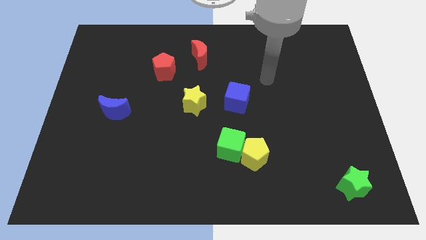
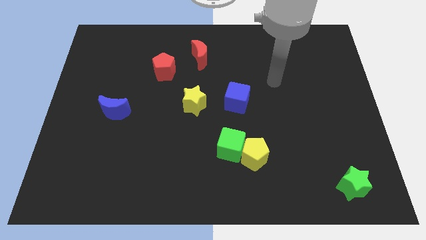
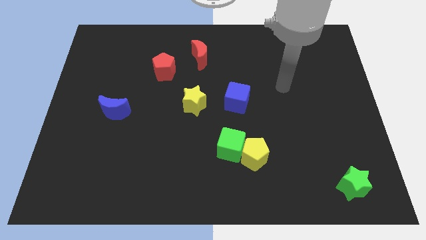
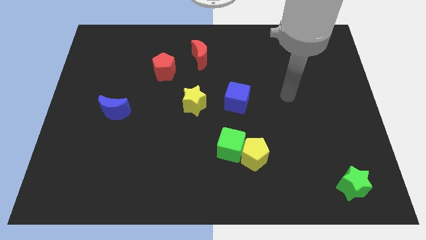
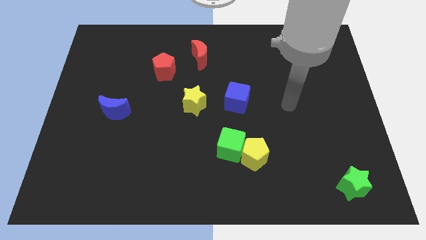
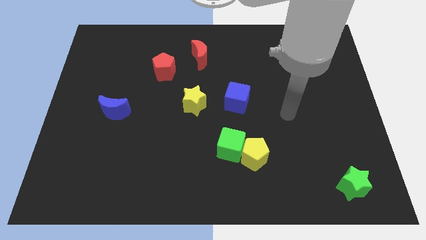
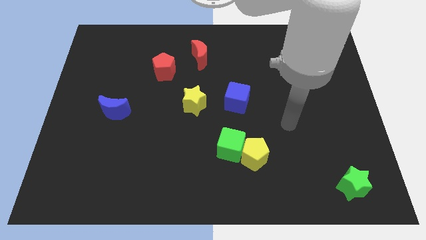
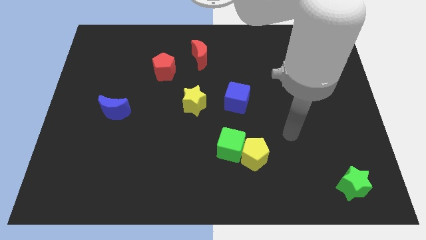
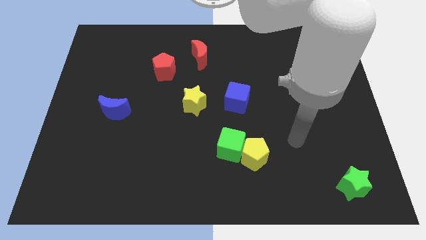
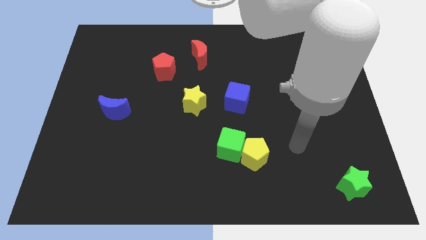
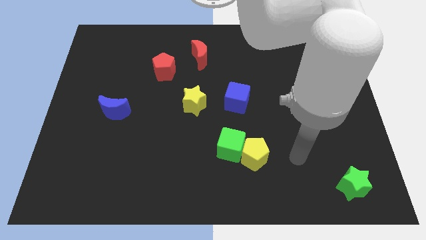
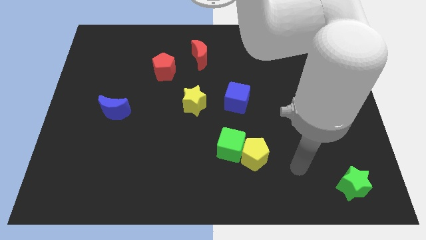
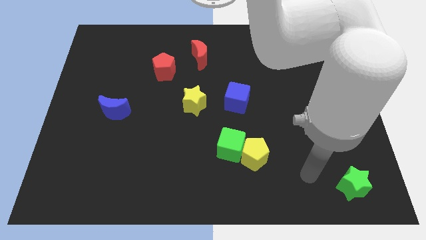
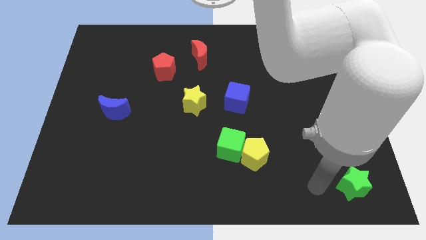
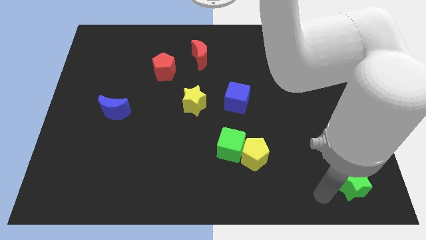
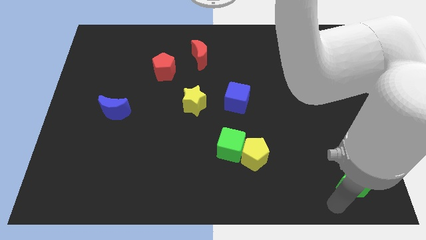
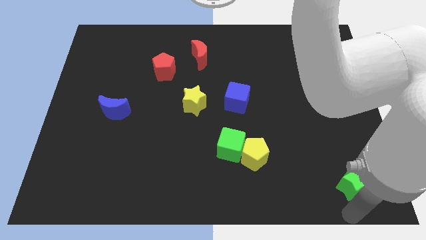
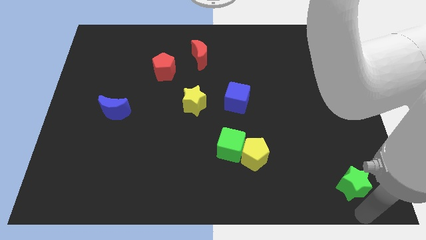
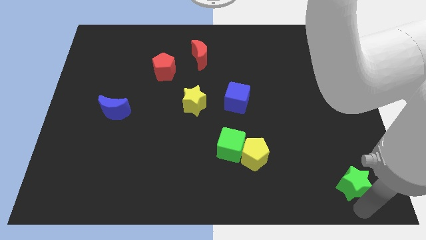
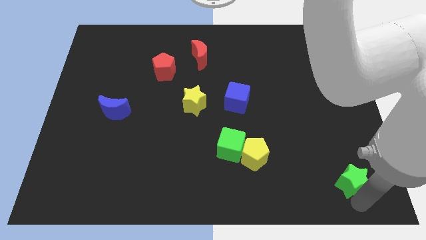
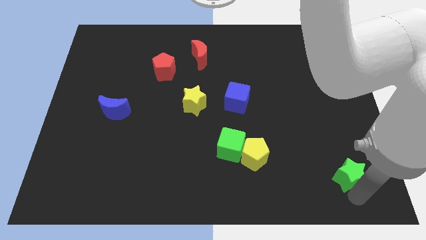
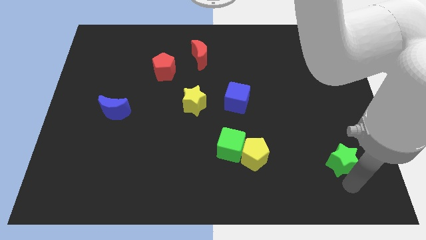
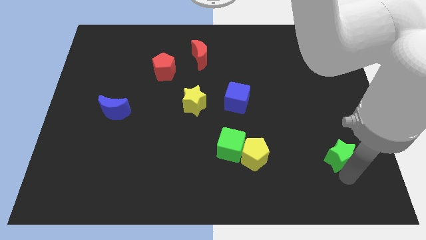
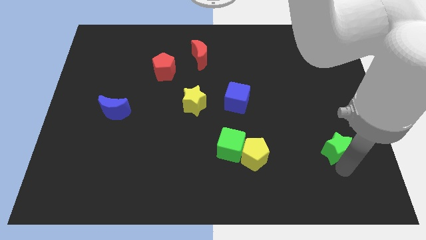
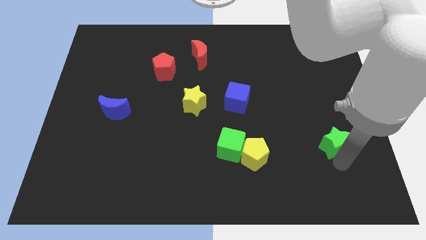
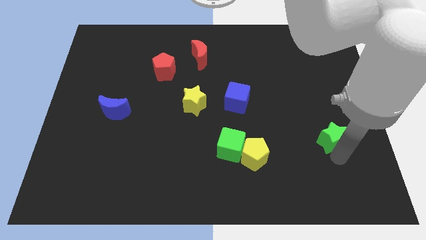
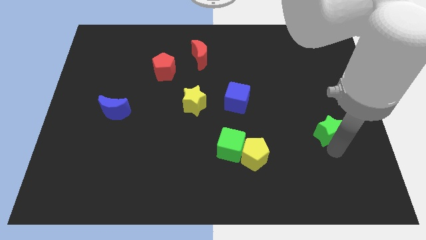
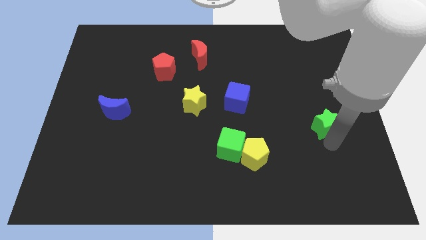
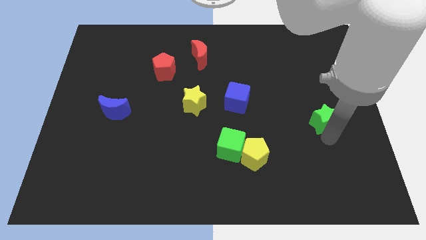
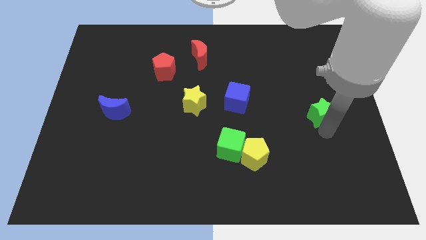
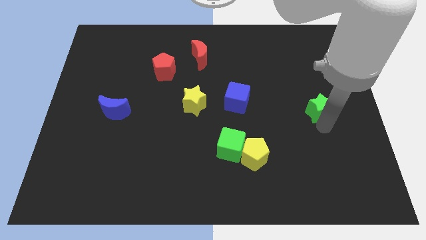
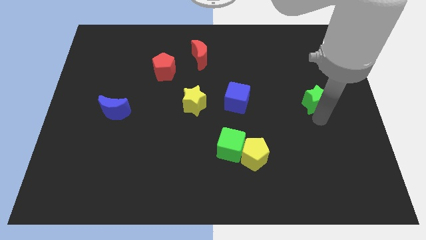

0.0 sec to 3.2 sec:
slide the green star up

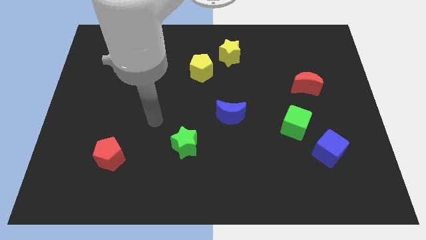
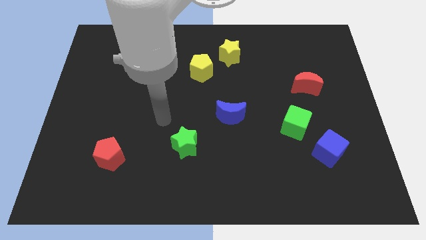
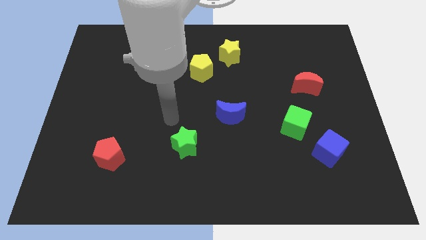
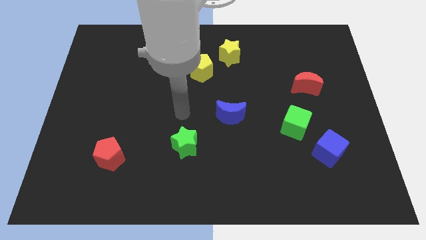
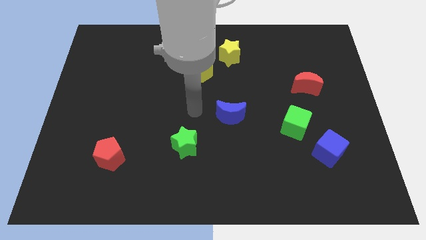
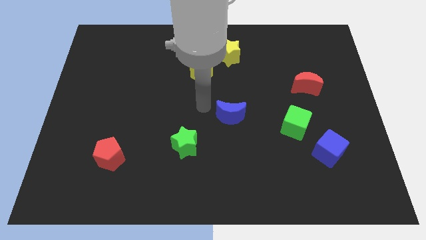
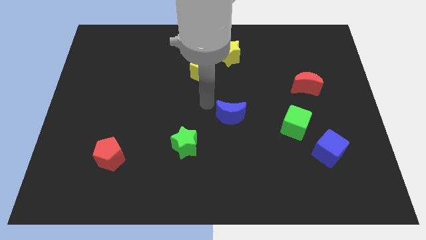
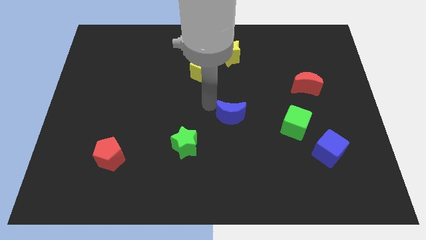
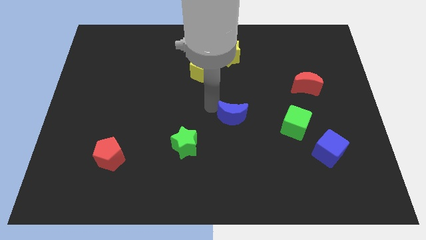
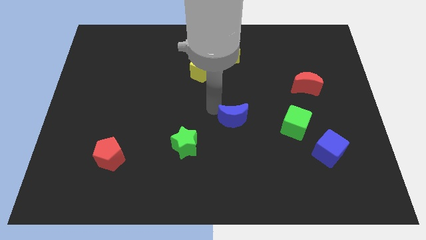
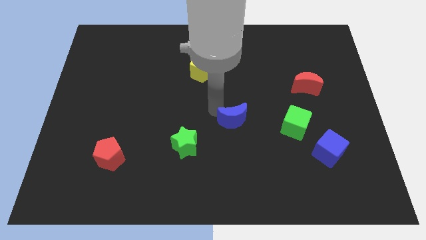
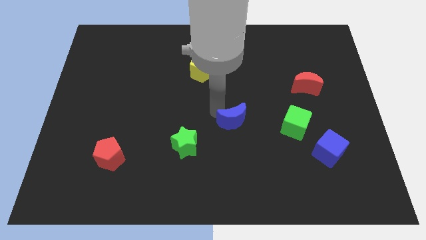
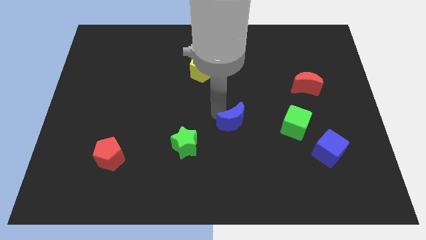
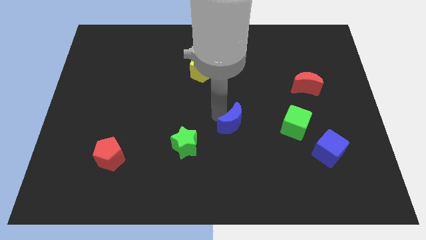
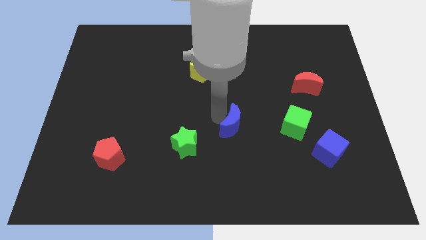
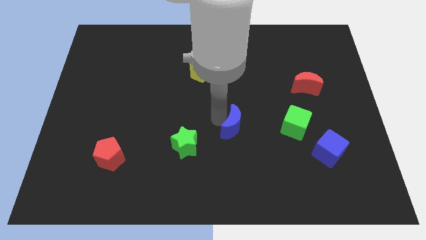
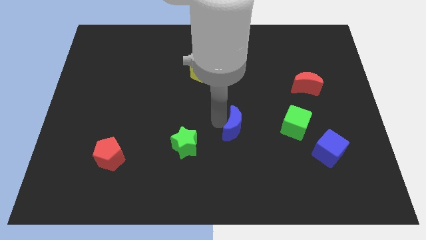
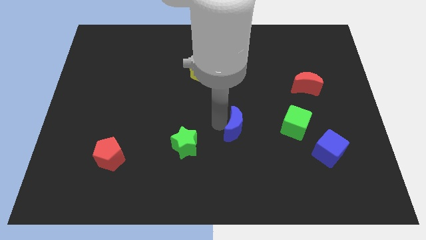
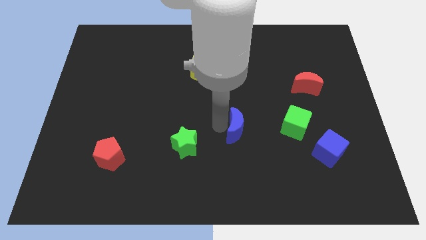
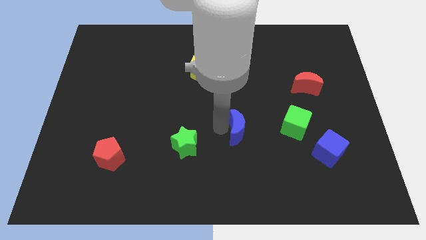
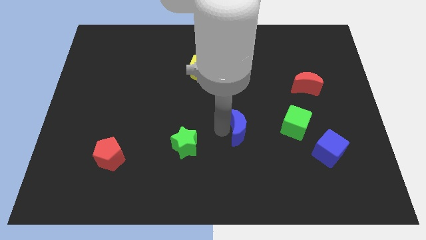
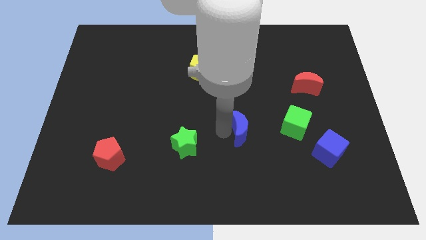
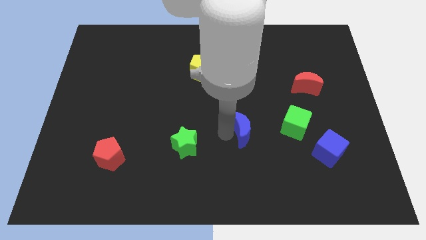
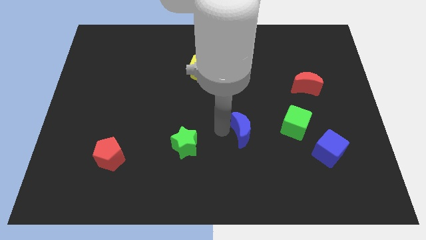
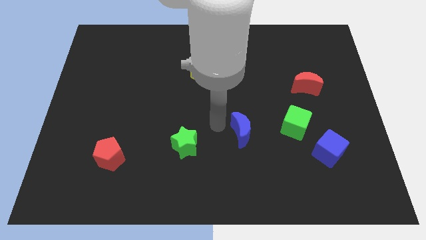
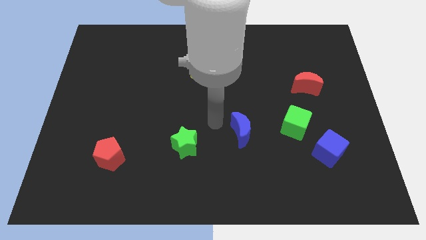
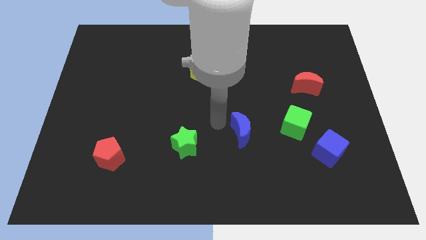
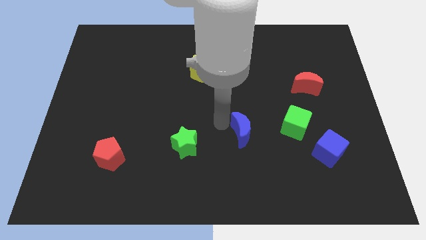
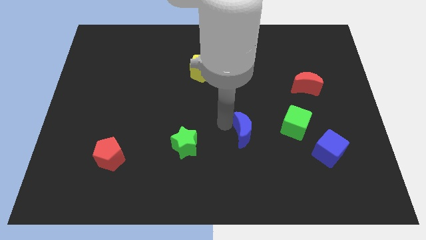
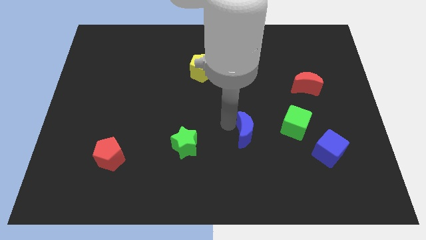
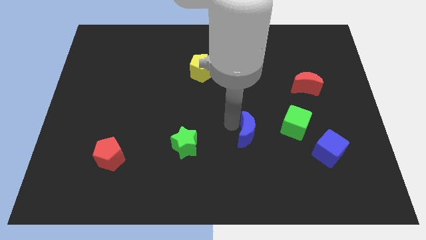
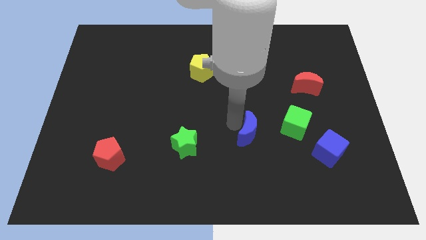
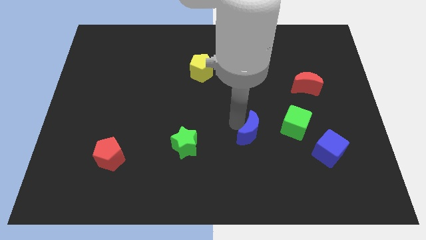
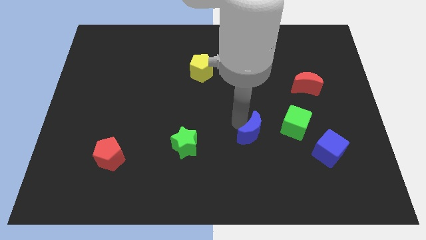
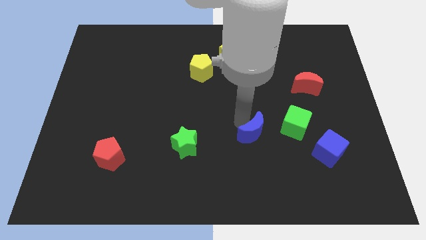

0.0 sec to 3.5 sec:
slide the blue moon diagonally downwards and to the right somewhat

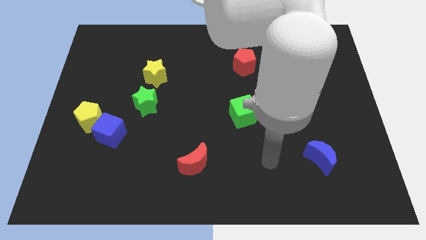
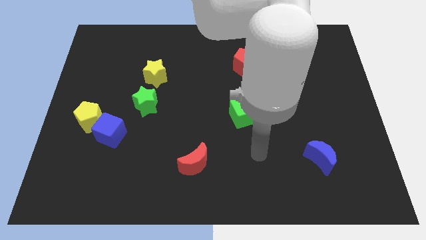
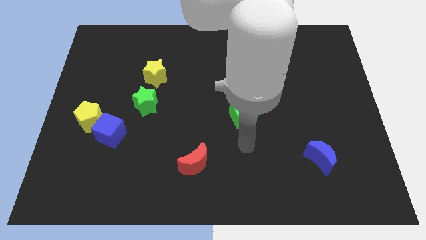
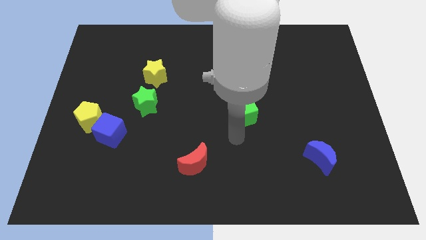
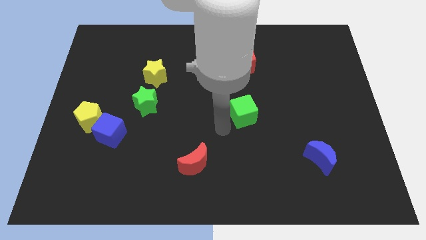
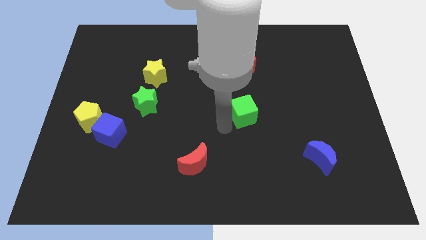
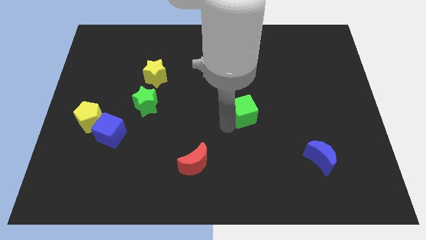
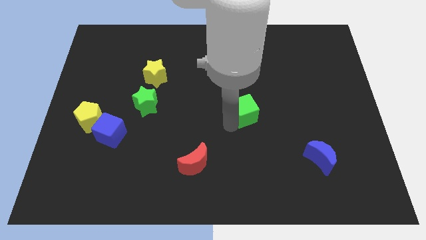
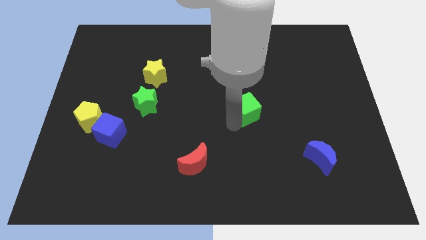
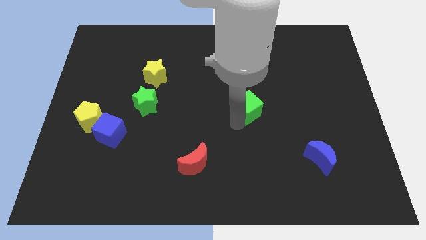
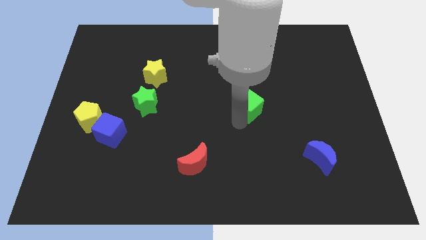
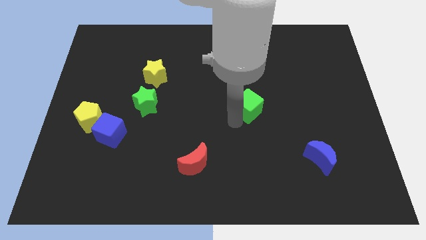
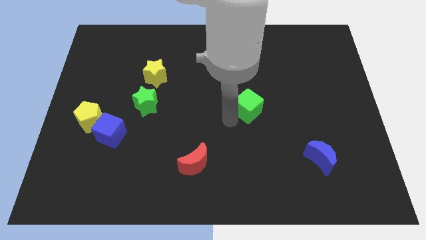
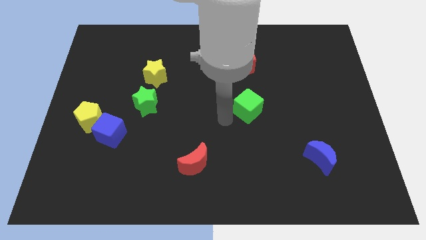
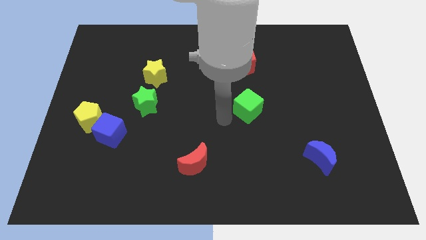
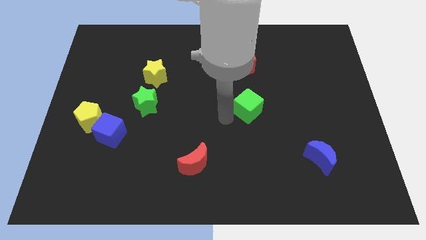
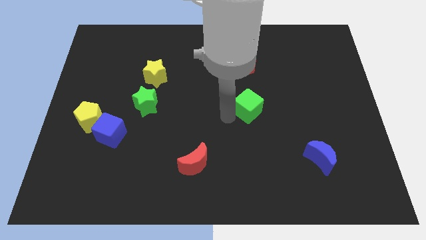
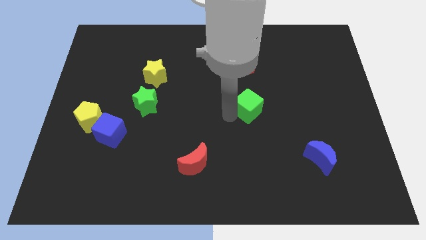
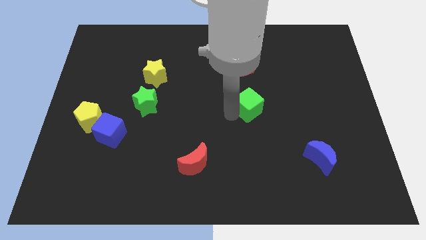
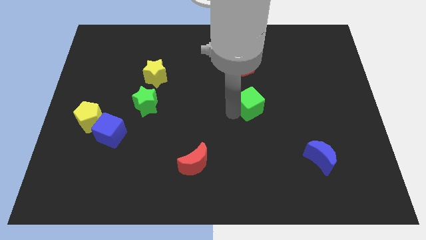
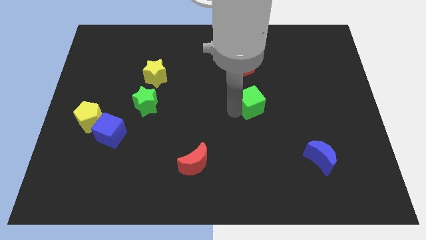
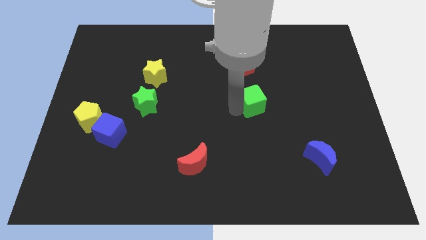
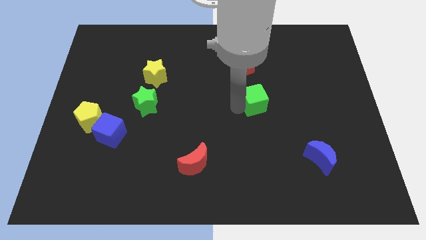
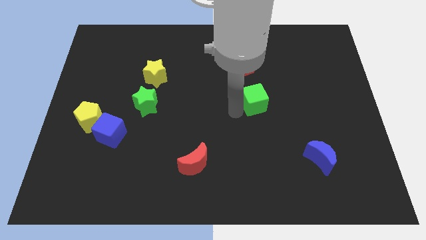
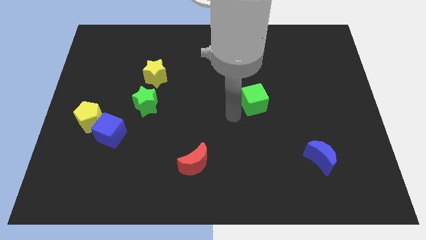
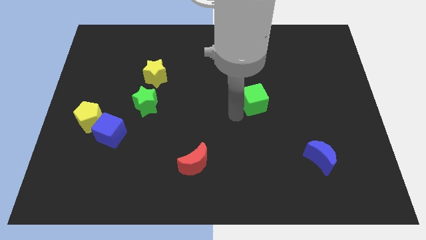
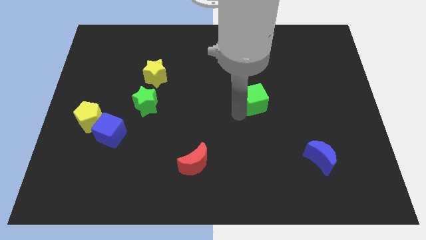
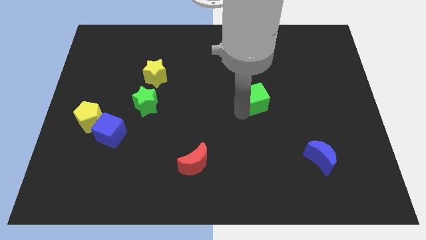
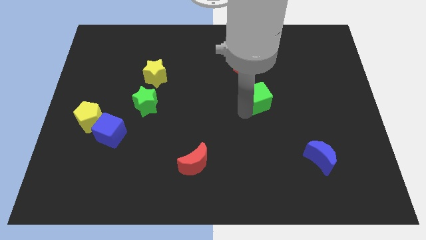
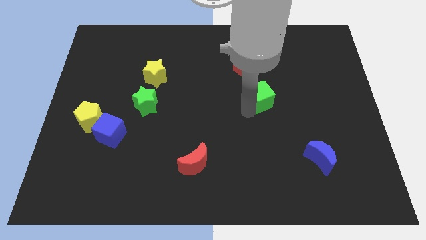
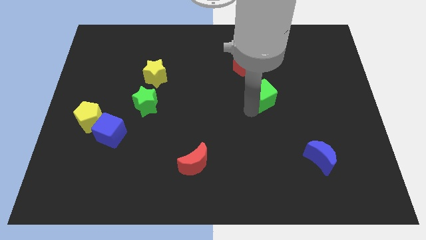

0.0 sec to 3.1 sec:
slide the green cube upwards and to the right diagonally a bit
